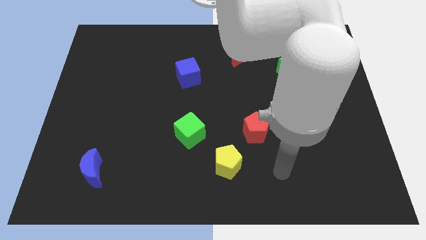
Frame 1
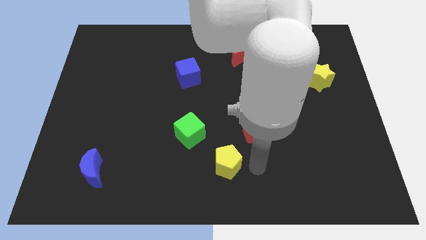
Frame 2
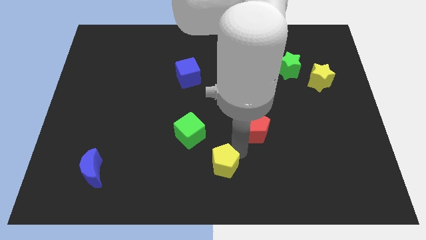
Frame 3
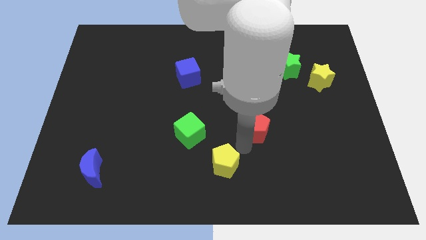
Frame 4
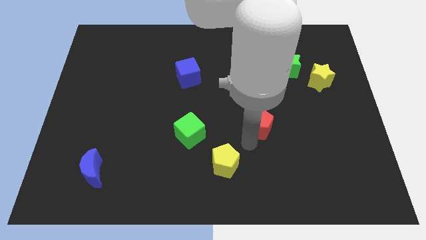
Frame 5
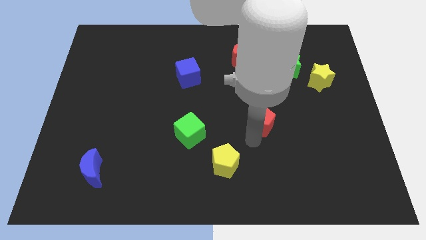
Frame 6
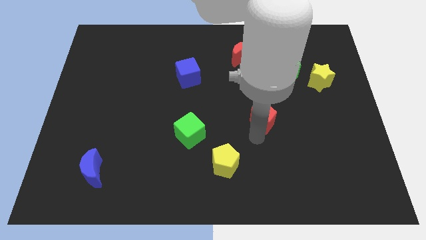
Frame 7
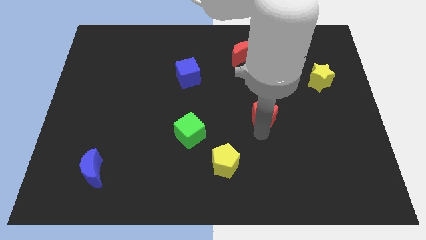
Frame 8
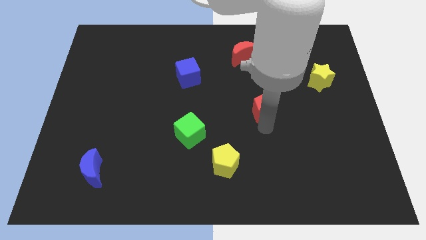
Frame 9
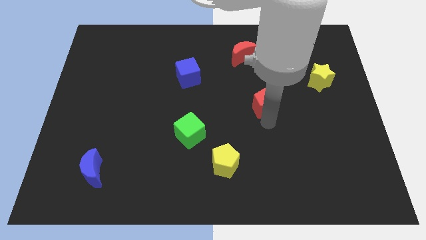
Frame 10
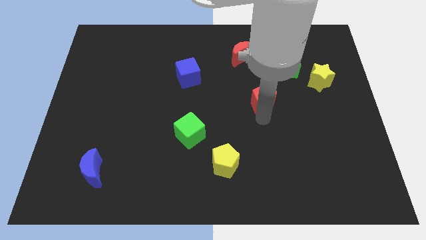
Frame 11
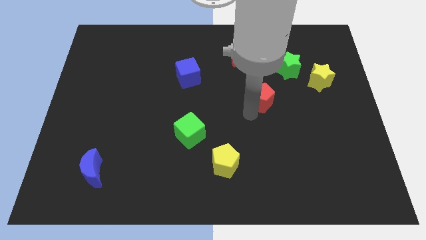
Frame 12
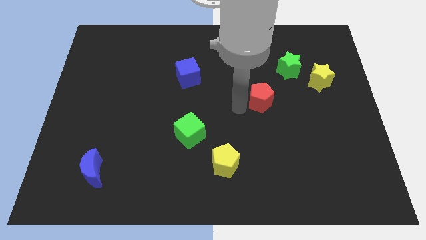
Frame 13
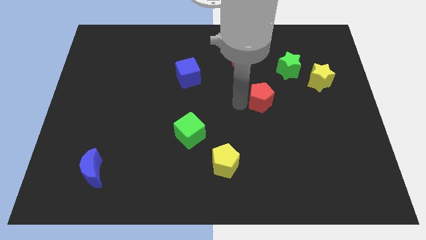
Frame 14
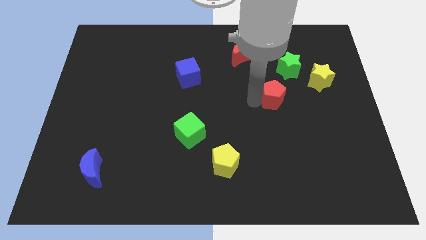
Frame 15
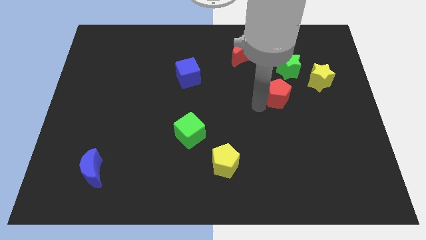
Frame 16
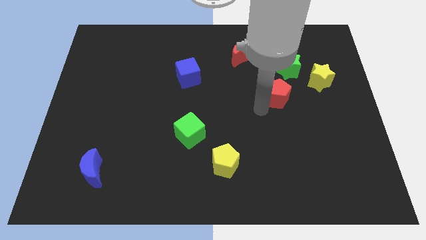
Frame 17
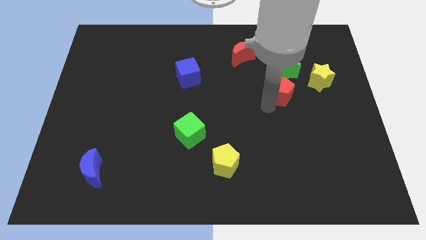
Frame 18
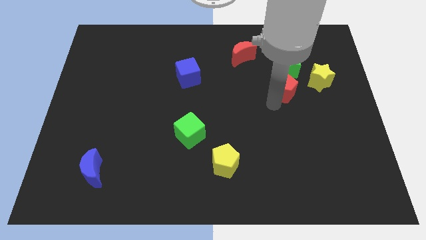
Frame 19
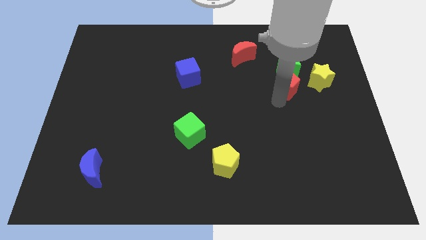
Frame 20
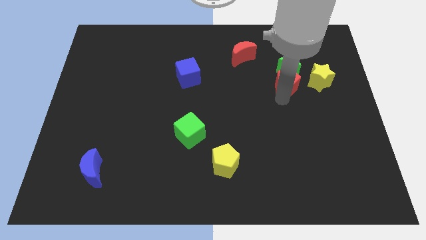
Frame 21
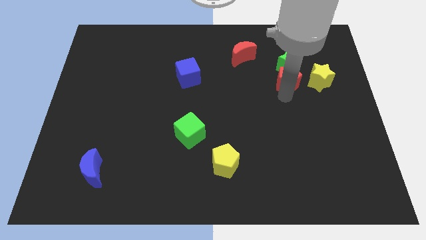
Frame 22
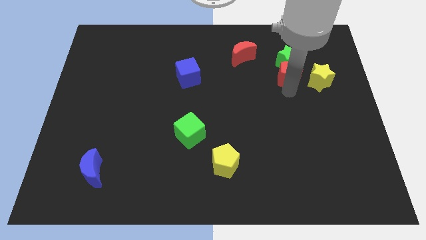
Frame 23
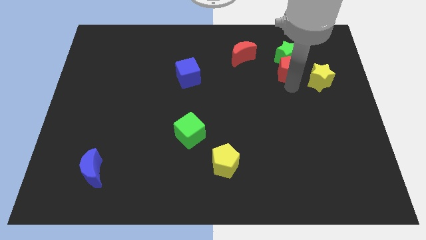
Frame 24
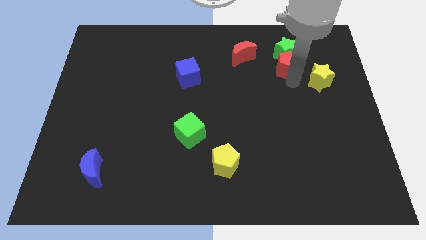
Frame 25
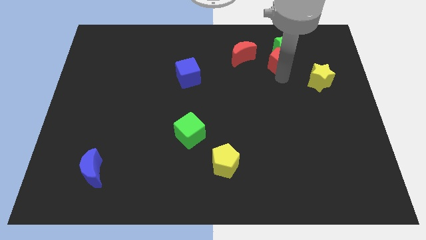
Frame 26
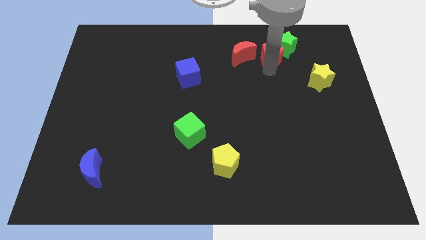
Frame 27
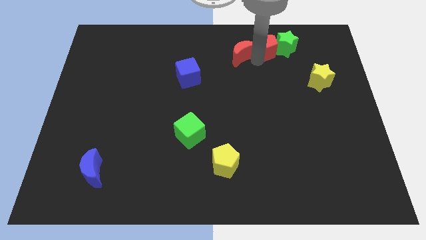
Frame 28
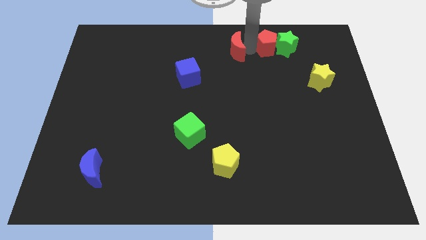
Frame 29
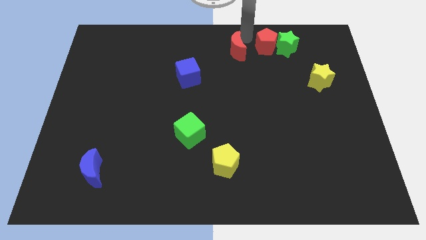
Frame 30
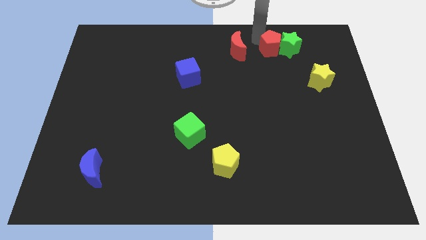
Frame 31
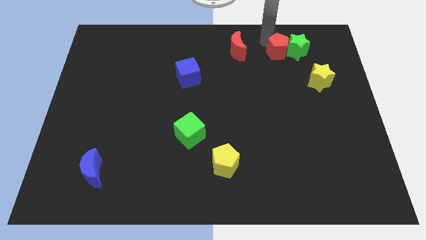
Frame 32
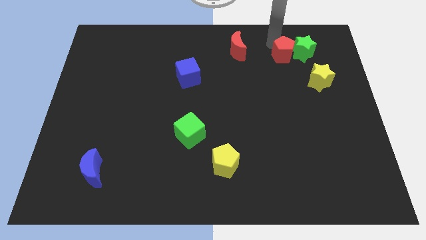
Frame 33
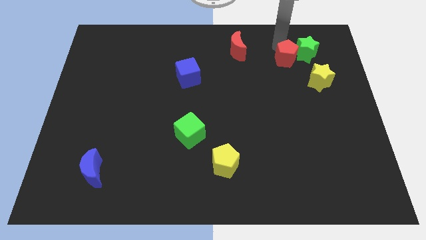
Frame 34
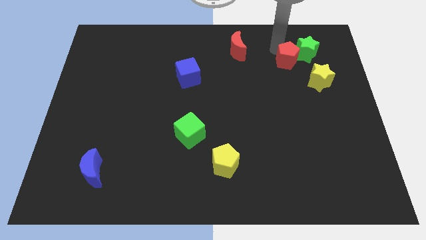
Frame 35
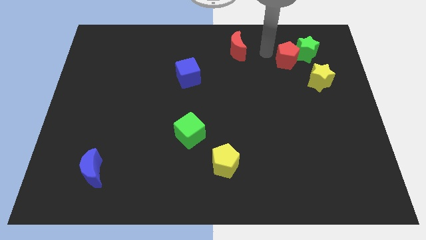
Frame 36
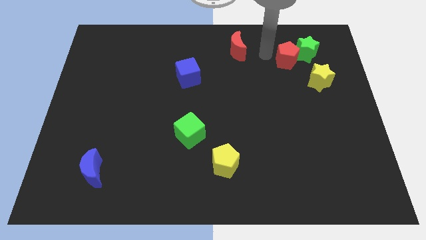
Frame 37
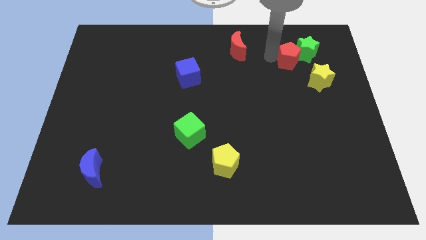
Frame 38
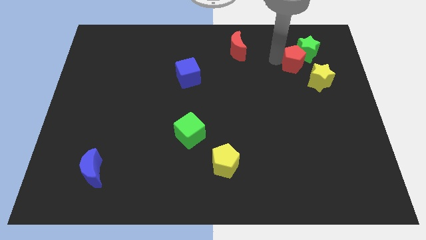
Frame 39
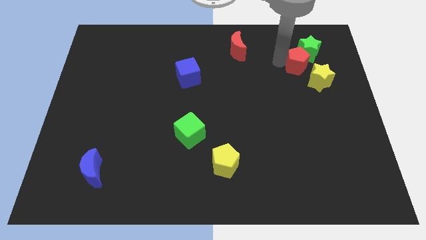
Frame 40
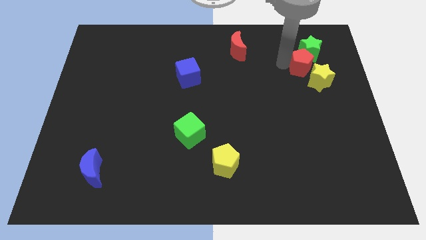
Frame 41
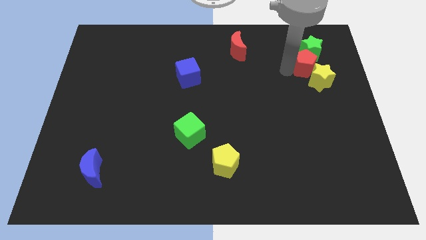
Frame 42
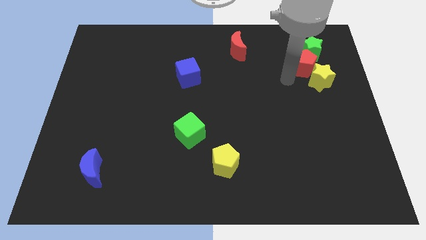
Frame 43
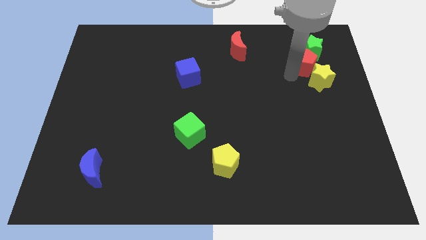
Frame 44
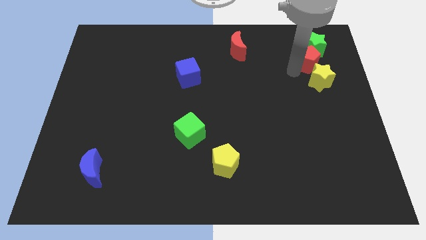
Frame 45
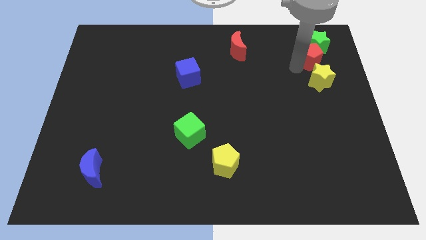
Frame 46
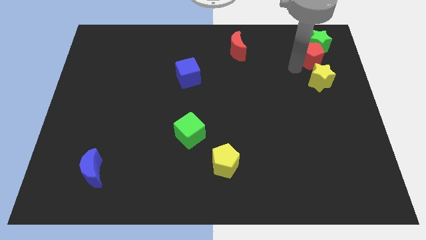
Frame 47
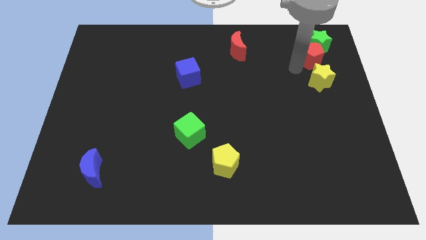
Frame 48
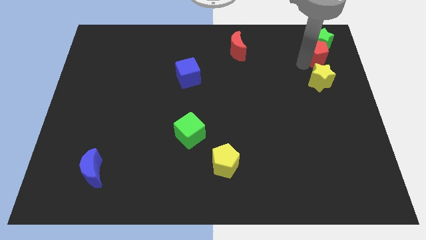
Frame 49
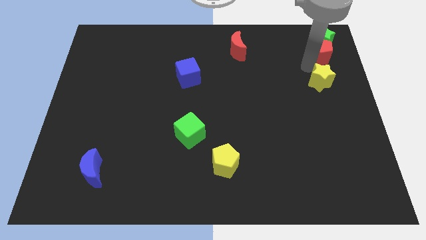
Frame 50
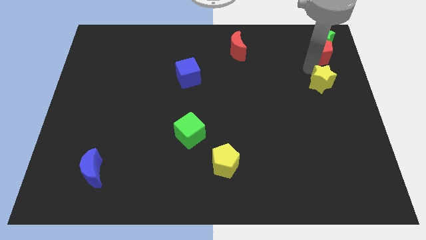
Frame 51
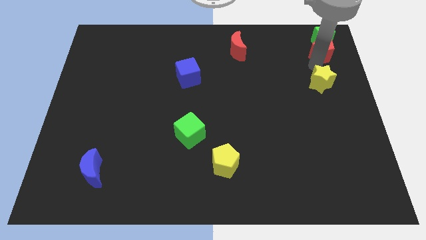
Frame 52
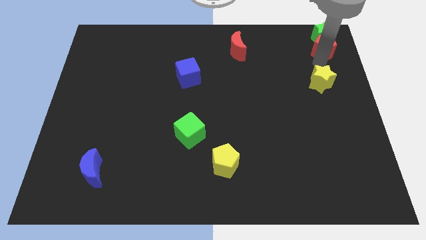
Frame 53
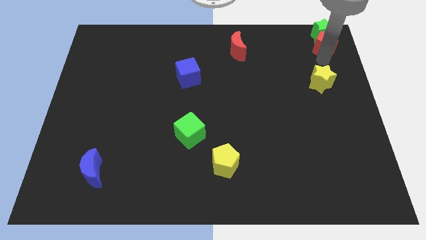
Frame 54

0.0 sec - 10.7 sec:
slide the red pentagon to the top right corner

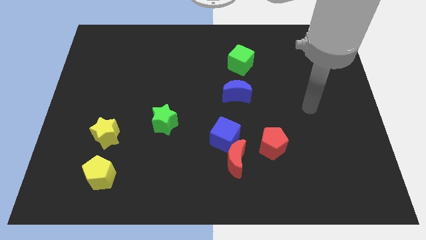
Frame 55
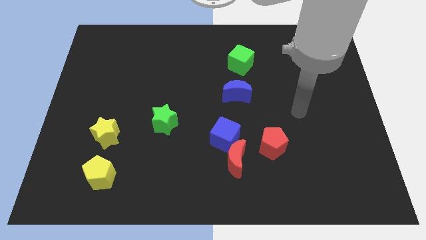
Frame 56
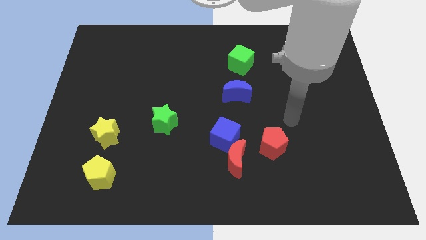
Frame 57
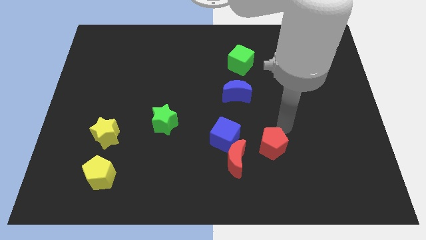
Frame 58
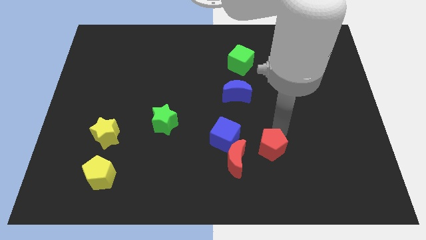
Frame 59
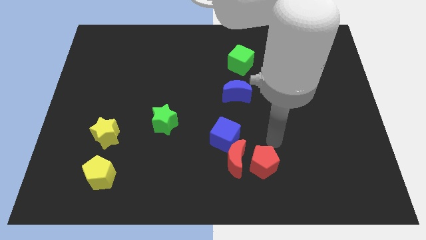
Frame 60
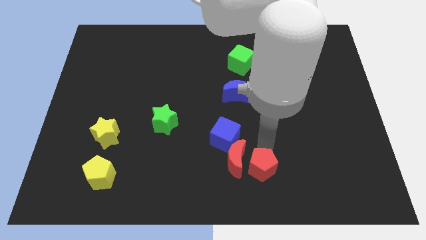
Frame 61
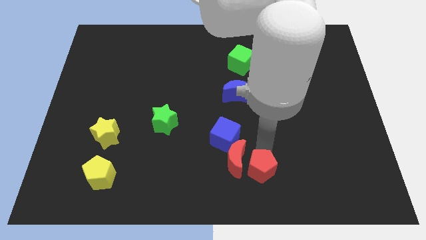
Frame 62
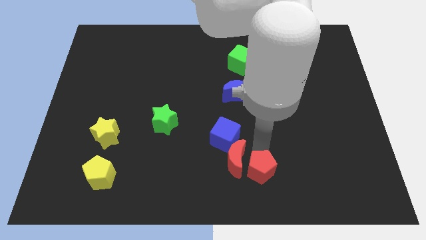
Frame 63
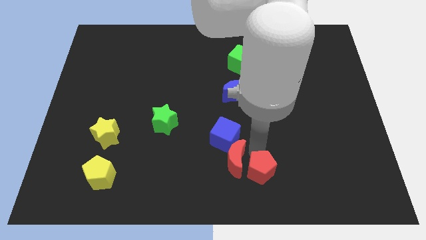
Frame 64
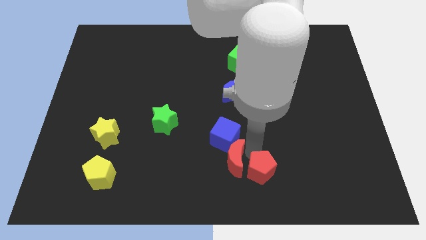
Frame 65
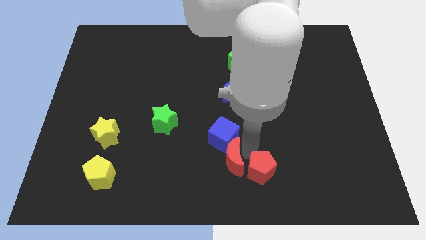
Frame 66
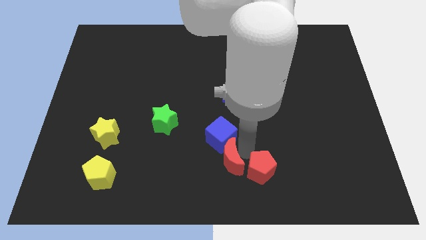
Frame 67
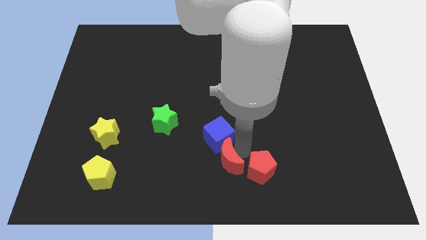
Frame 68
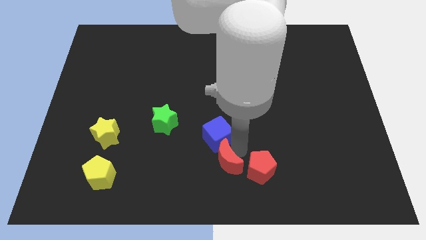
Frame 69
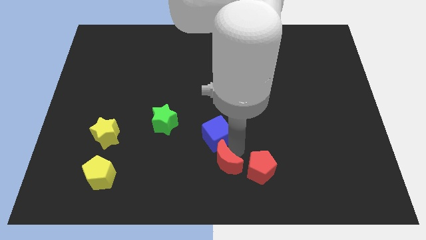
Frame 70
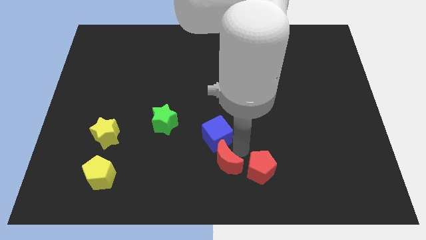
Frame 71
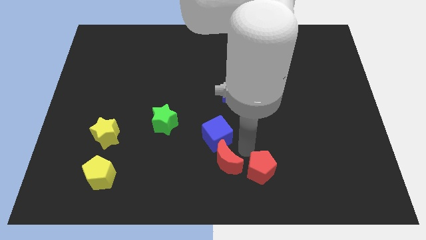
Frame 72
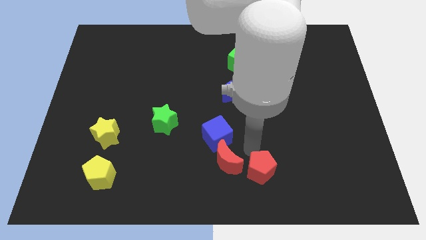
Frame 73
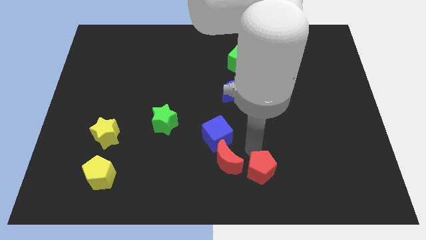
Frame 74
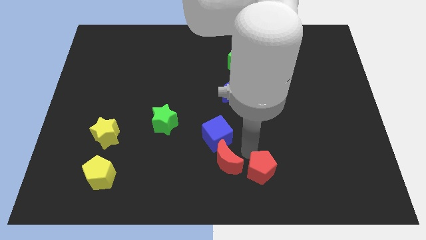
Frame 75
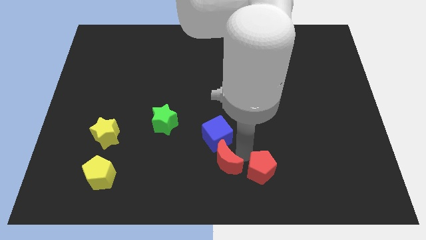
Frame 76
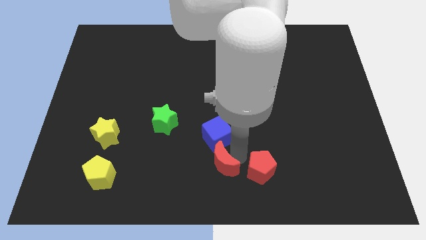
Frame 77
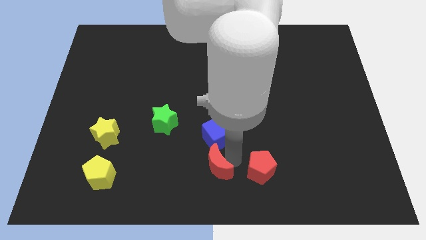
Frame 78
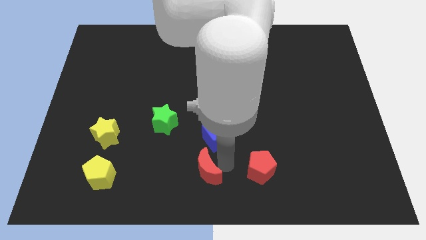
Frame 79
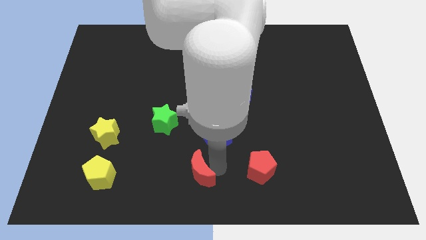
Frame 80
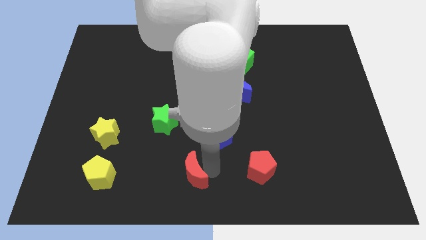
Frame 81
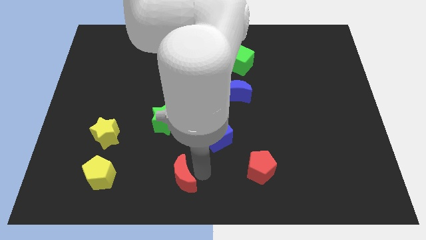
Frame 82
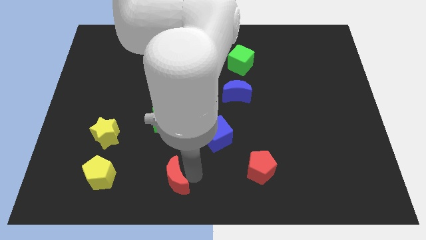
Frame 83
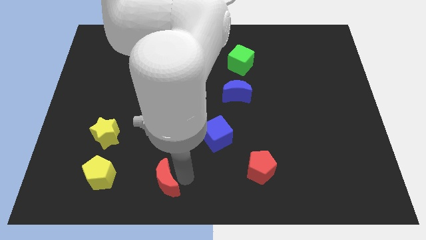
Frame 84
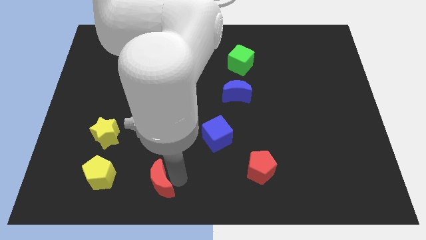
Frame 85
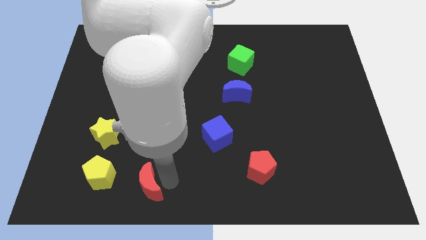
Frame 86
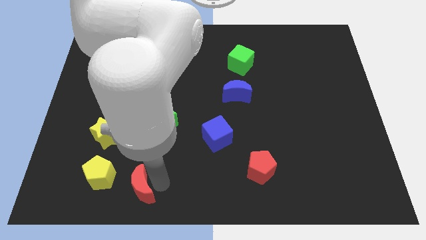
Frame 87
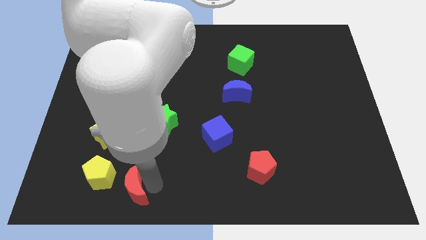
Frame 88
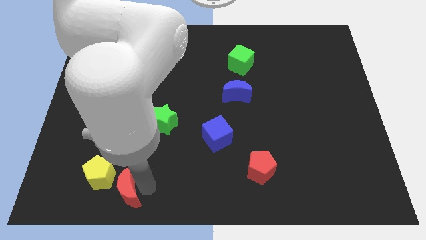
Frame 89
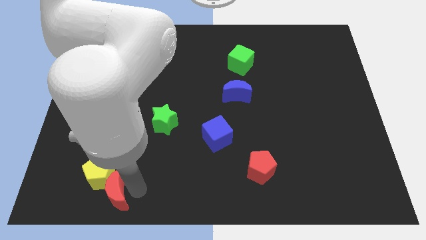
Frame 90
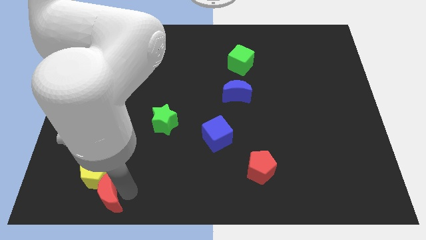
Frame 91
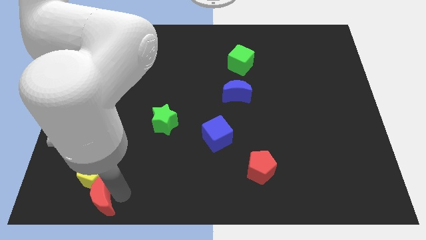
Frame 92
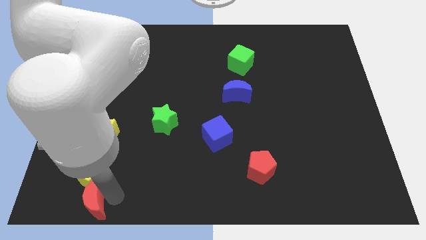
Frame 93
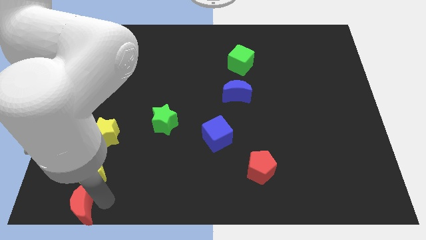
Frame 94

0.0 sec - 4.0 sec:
slide the red moon to the bottom left corner
